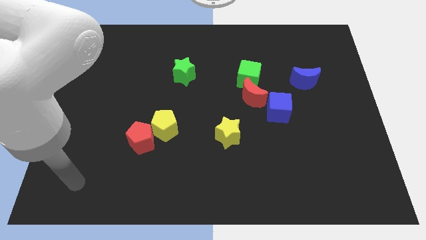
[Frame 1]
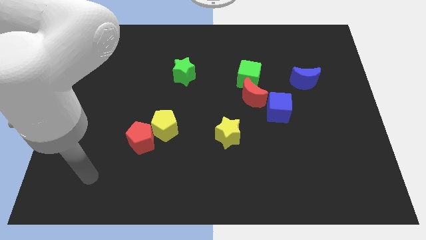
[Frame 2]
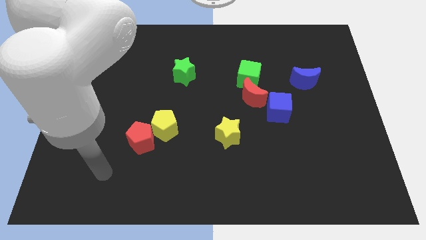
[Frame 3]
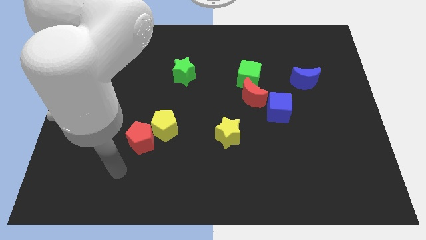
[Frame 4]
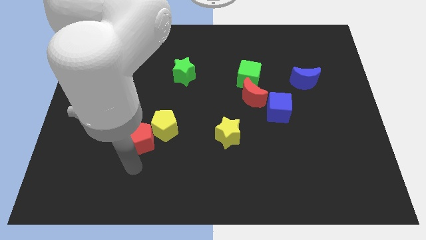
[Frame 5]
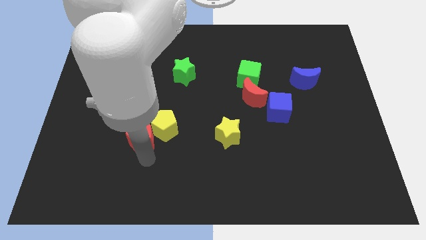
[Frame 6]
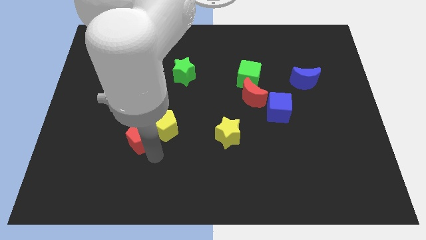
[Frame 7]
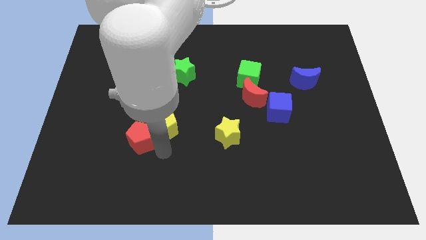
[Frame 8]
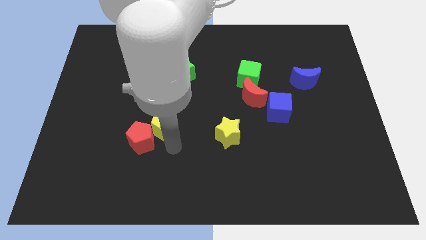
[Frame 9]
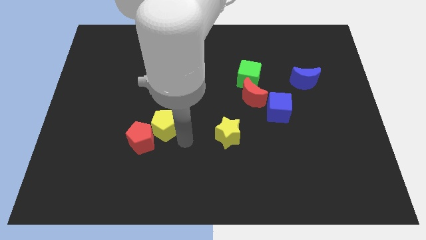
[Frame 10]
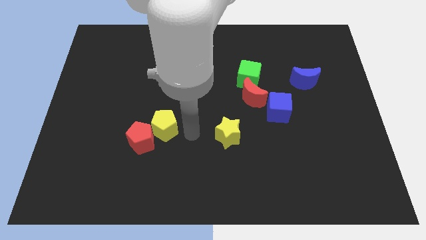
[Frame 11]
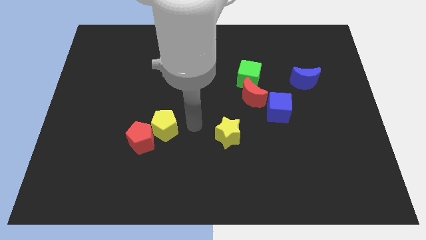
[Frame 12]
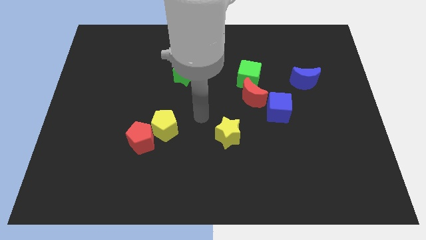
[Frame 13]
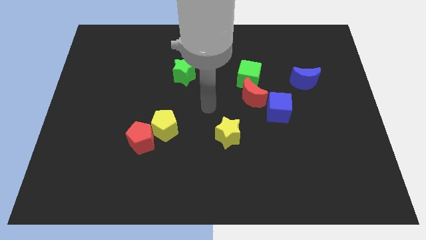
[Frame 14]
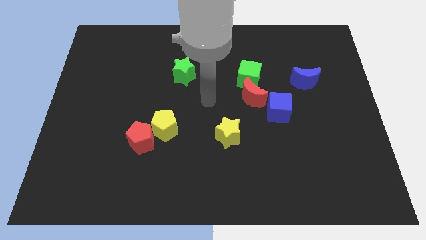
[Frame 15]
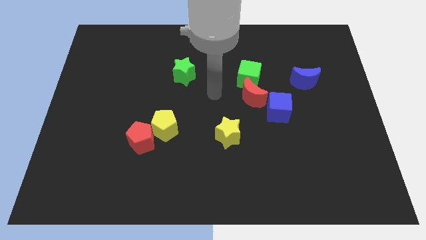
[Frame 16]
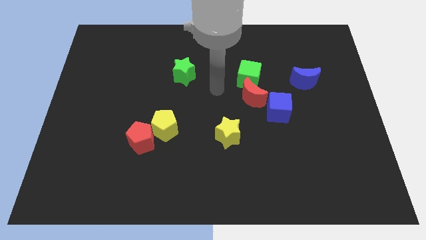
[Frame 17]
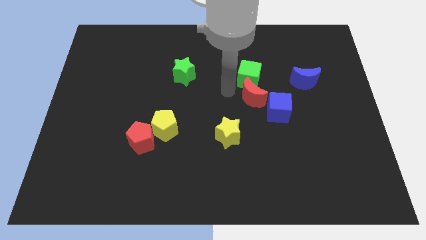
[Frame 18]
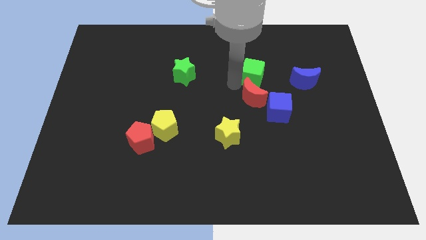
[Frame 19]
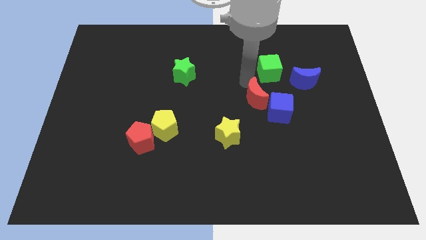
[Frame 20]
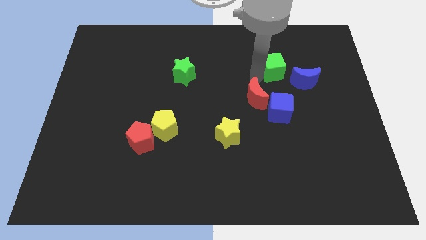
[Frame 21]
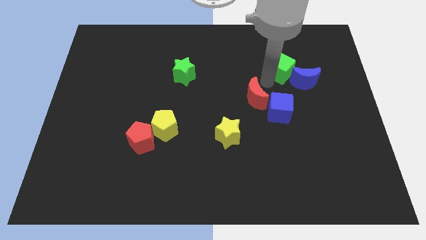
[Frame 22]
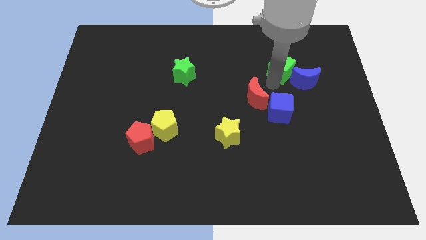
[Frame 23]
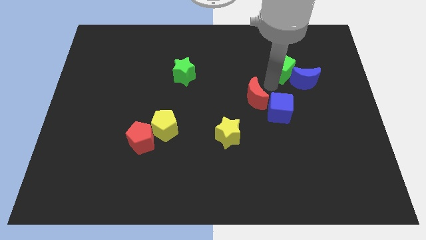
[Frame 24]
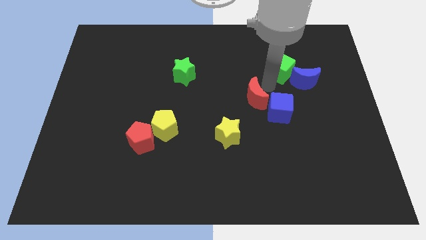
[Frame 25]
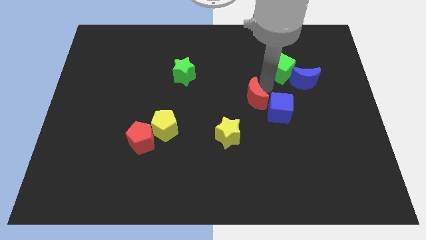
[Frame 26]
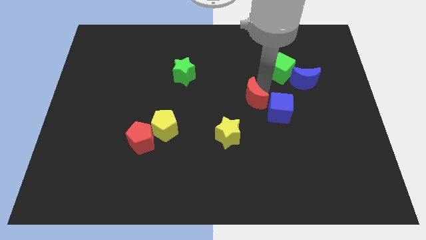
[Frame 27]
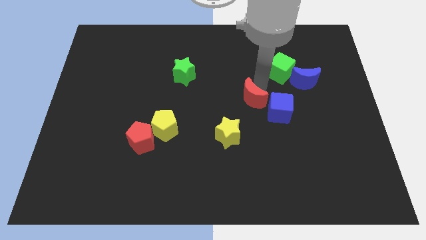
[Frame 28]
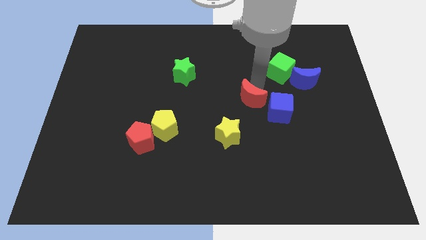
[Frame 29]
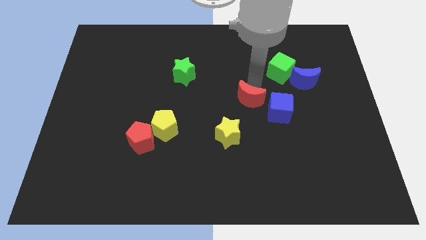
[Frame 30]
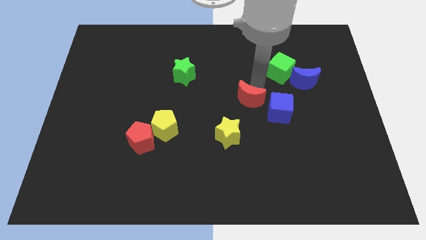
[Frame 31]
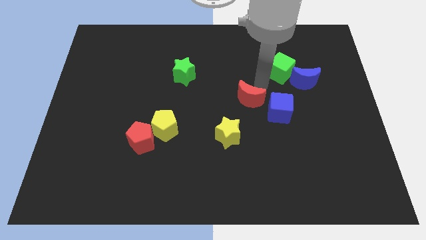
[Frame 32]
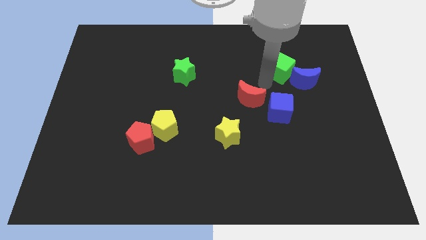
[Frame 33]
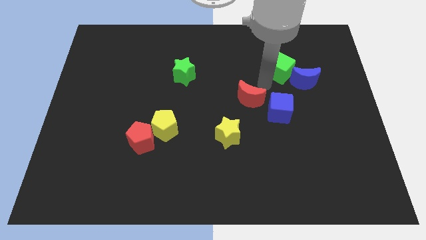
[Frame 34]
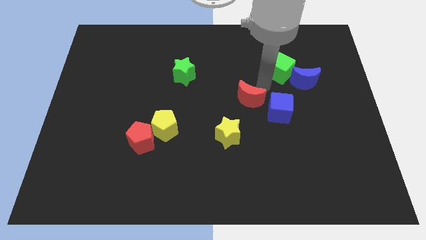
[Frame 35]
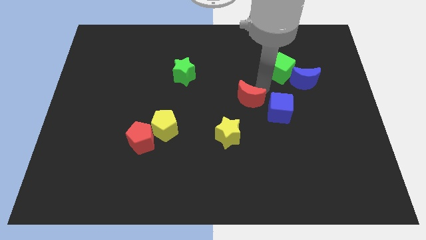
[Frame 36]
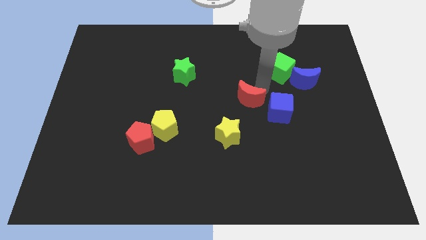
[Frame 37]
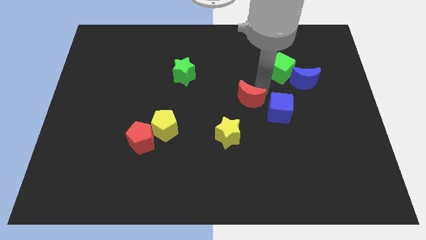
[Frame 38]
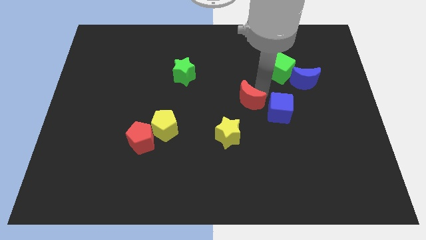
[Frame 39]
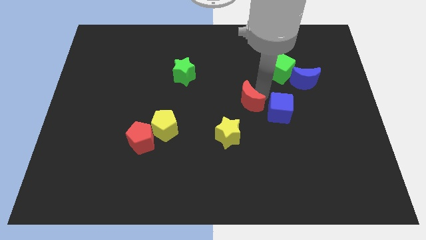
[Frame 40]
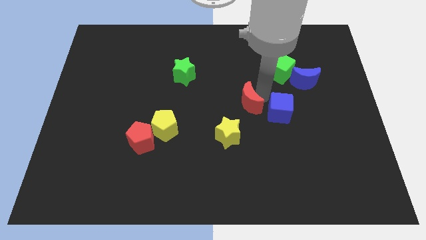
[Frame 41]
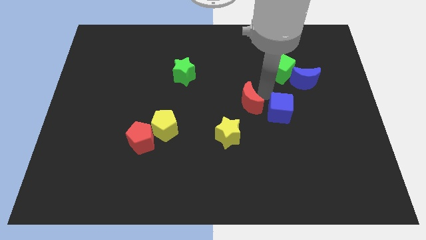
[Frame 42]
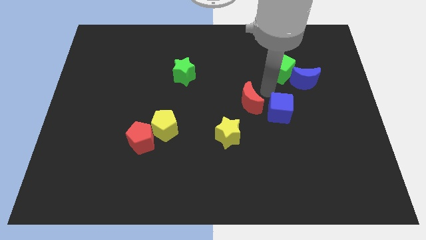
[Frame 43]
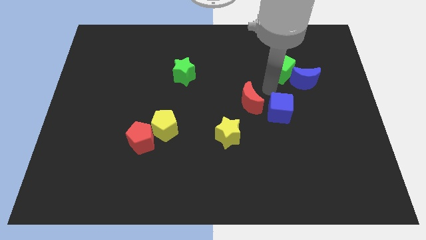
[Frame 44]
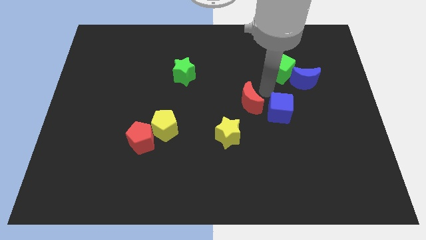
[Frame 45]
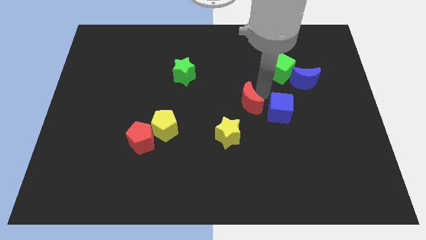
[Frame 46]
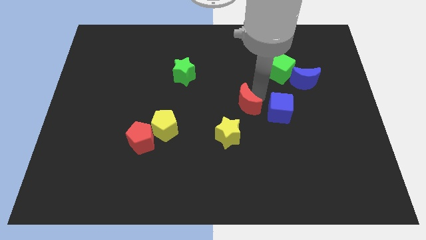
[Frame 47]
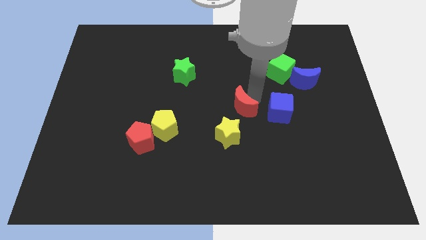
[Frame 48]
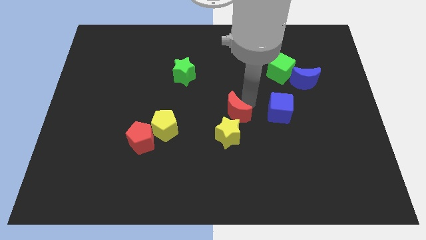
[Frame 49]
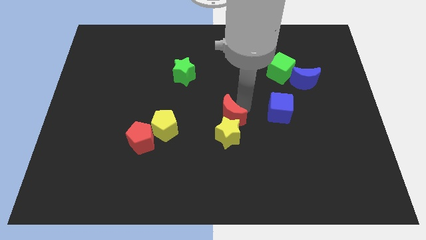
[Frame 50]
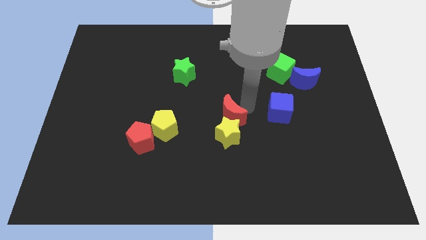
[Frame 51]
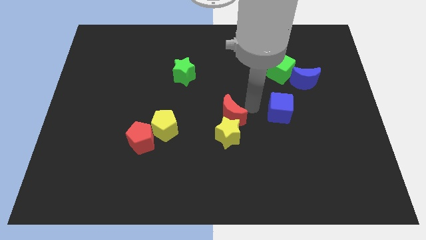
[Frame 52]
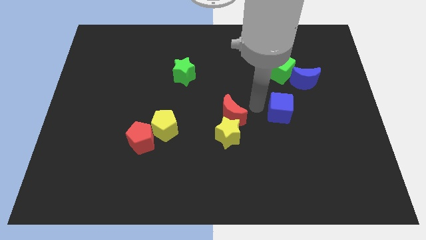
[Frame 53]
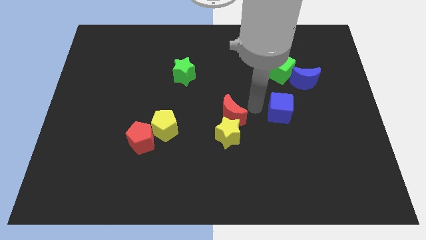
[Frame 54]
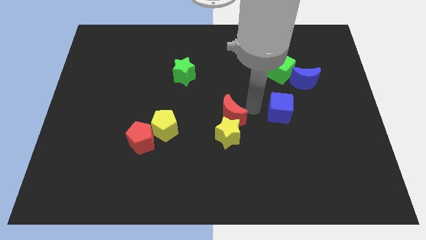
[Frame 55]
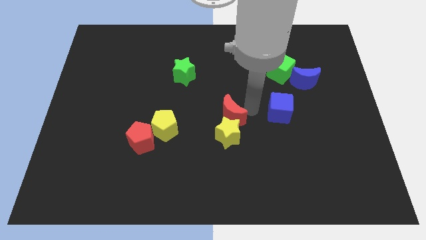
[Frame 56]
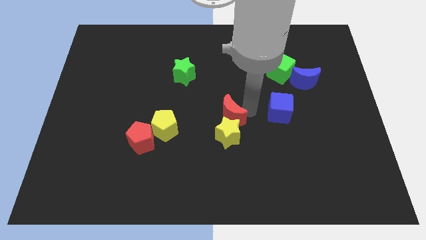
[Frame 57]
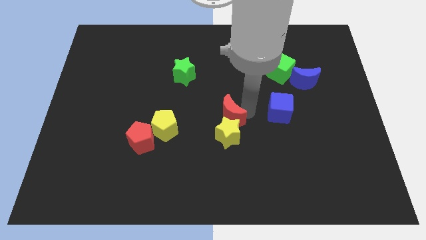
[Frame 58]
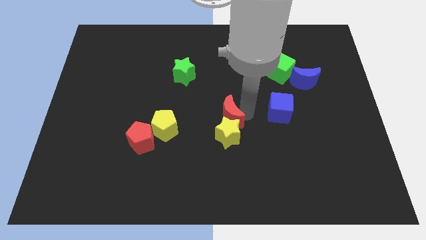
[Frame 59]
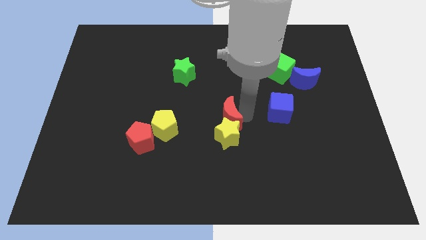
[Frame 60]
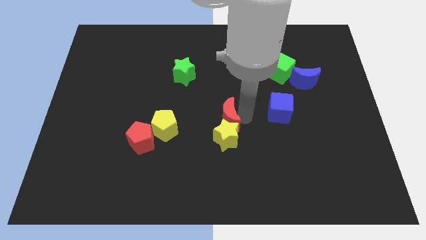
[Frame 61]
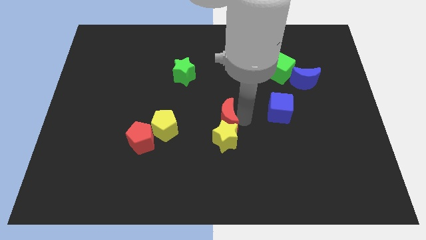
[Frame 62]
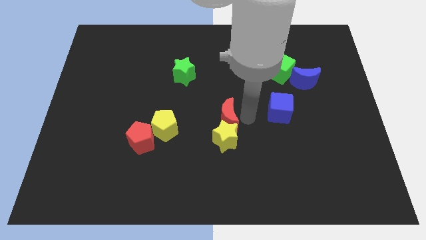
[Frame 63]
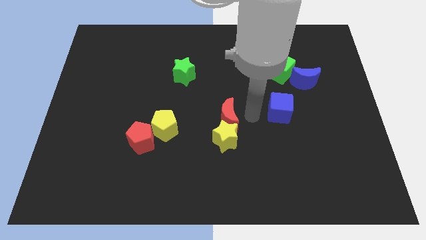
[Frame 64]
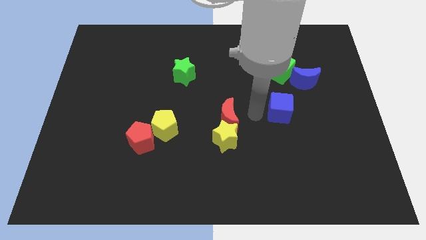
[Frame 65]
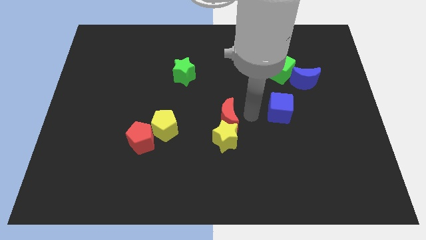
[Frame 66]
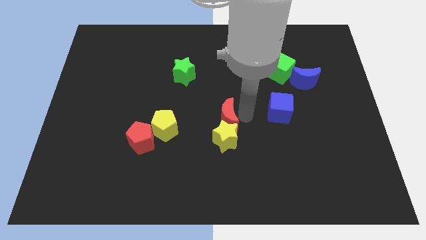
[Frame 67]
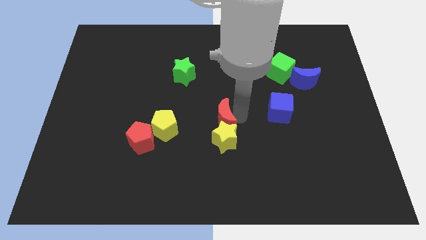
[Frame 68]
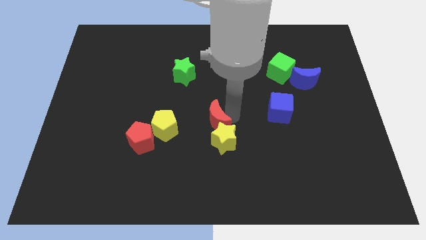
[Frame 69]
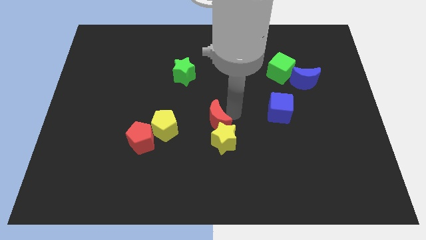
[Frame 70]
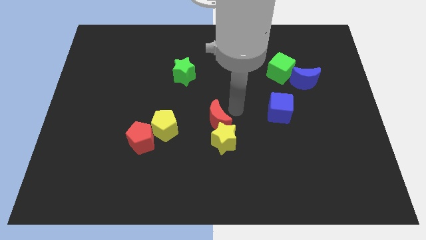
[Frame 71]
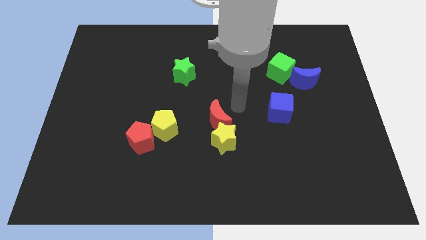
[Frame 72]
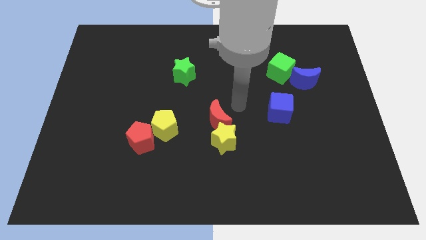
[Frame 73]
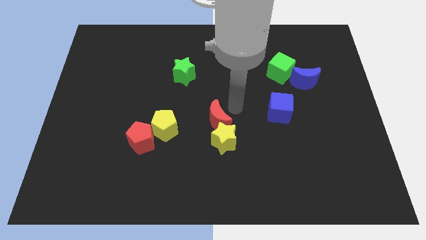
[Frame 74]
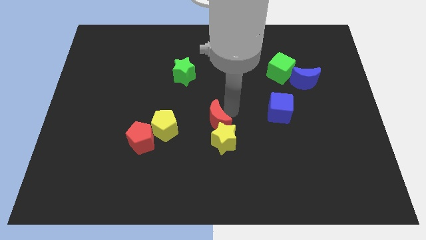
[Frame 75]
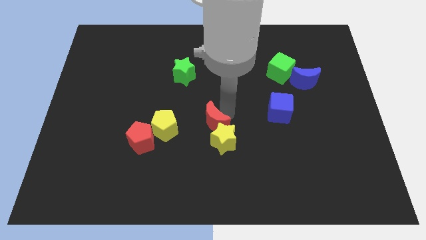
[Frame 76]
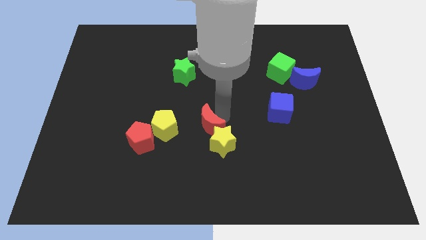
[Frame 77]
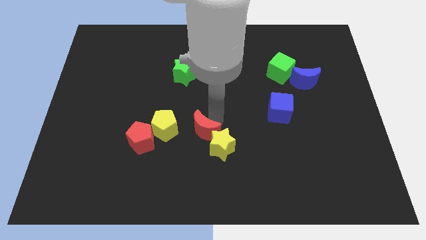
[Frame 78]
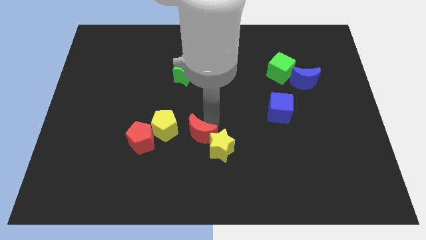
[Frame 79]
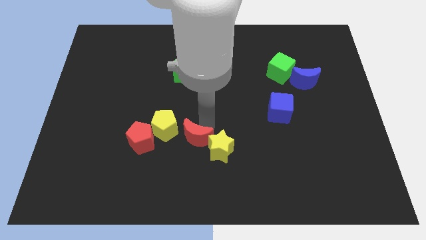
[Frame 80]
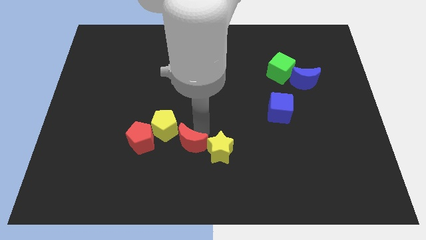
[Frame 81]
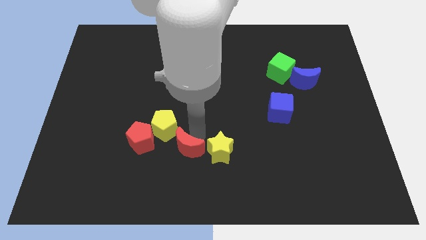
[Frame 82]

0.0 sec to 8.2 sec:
move the red moon below the yellow pentagon
